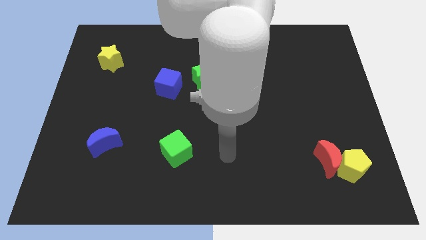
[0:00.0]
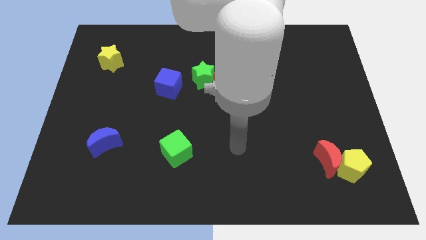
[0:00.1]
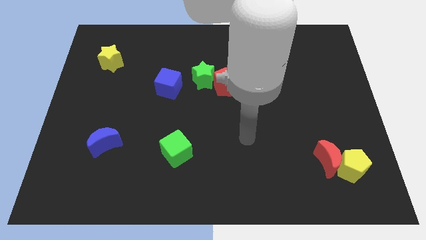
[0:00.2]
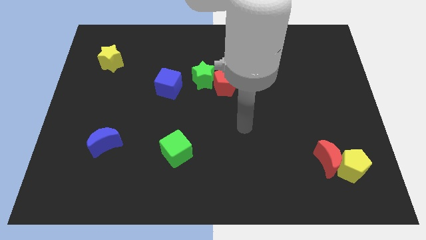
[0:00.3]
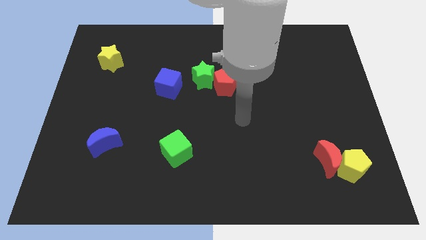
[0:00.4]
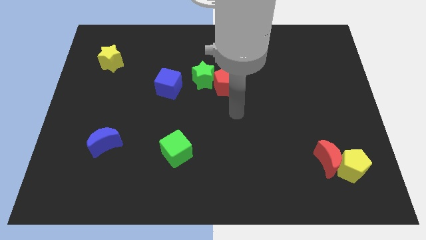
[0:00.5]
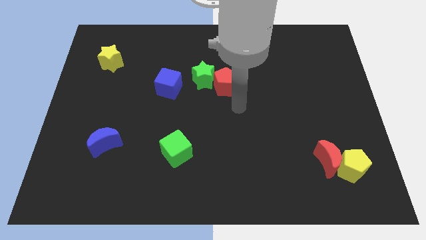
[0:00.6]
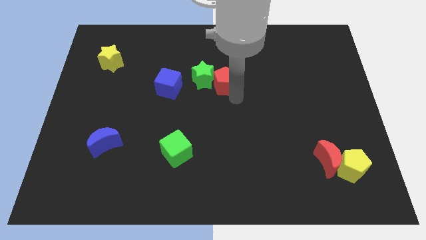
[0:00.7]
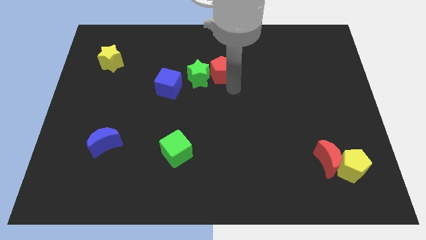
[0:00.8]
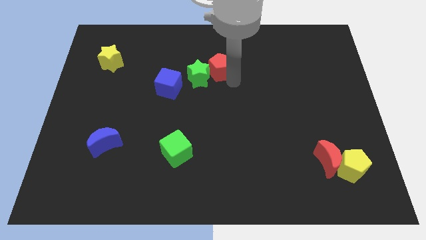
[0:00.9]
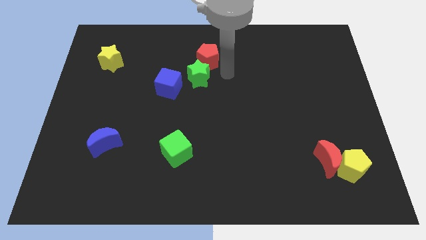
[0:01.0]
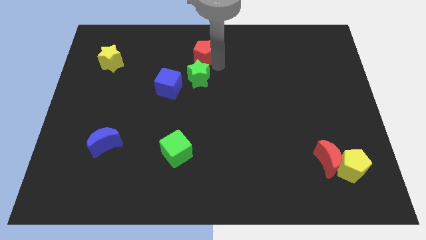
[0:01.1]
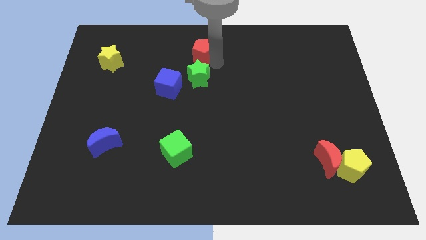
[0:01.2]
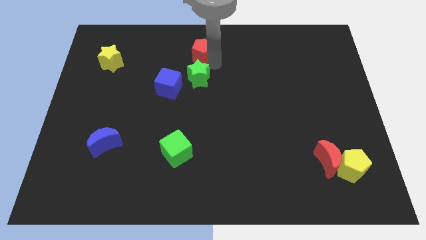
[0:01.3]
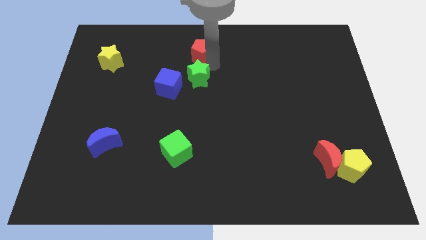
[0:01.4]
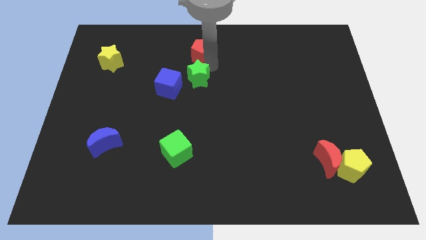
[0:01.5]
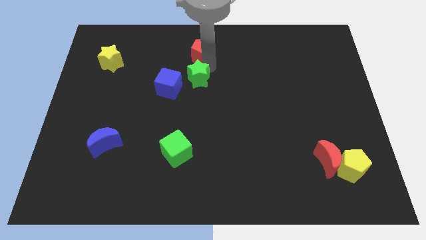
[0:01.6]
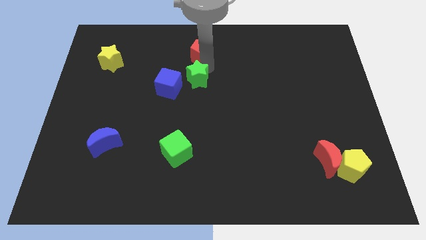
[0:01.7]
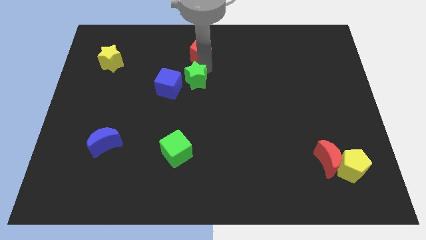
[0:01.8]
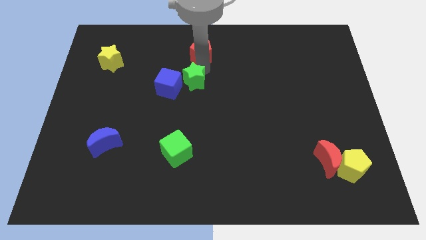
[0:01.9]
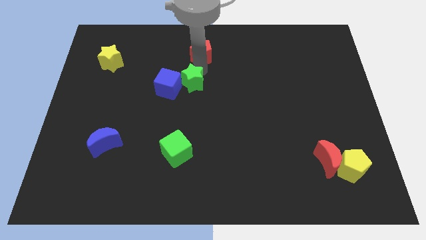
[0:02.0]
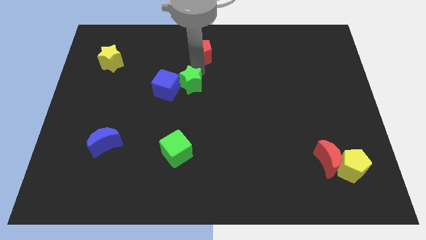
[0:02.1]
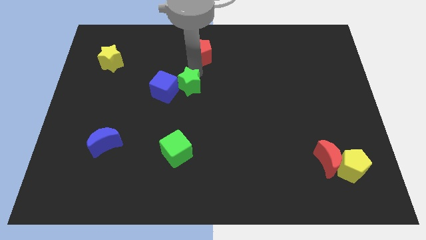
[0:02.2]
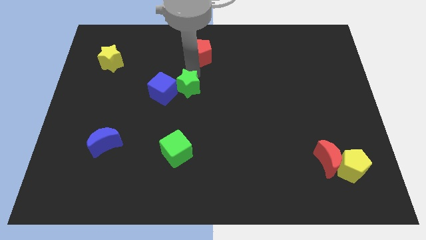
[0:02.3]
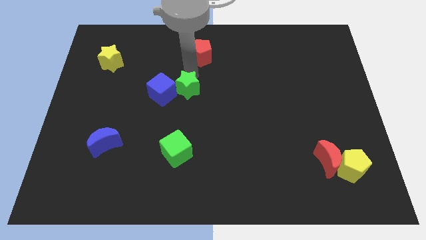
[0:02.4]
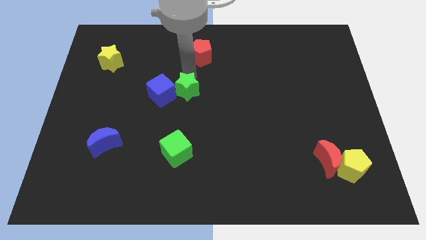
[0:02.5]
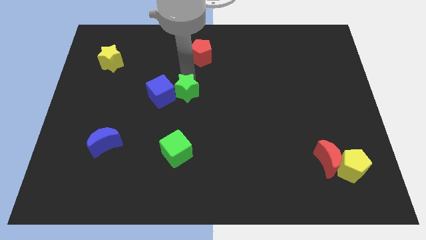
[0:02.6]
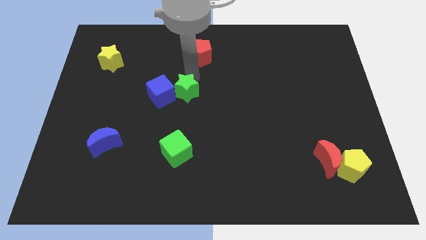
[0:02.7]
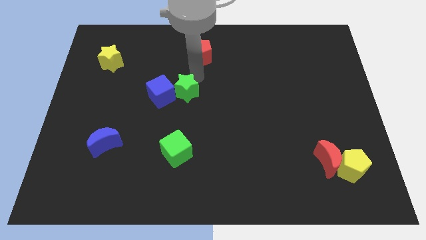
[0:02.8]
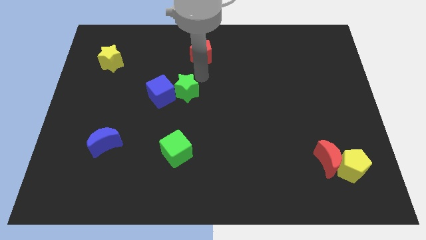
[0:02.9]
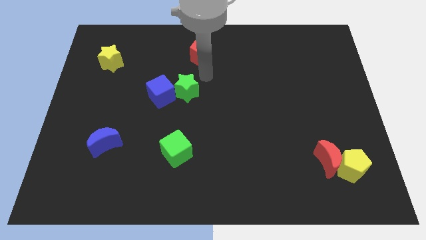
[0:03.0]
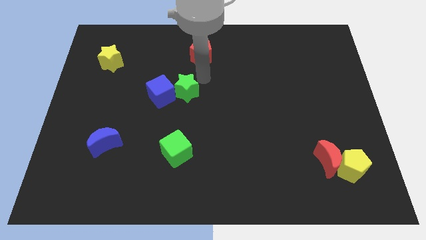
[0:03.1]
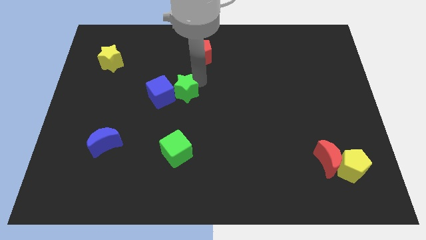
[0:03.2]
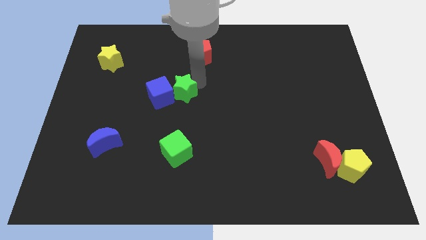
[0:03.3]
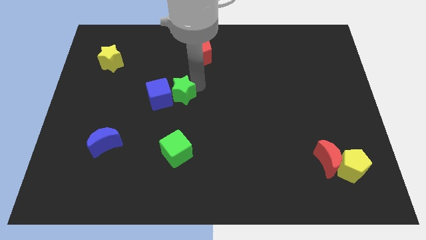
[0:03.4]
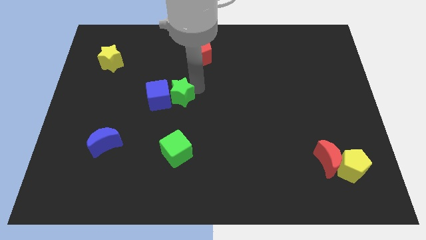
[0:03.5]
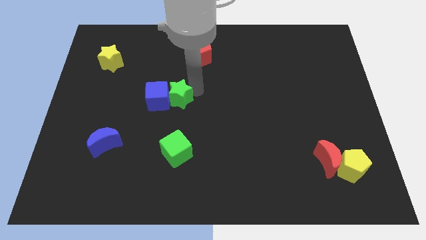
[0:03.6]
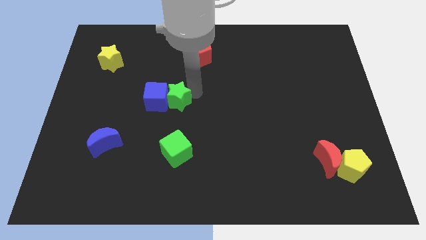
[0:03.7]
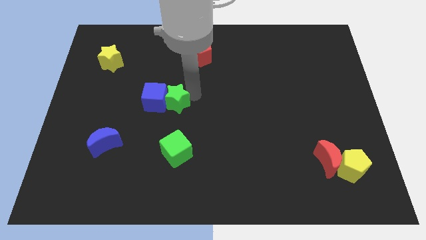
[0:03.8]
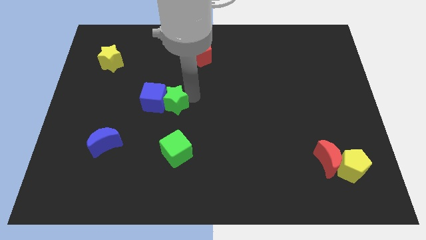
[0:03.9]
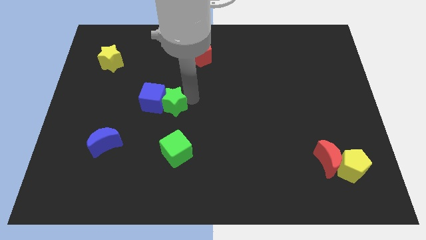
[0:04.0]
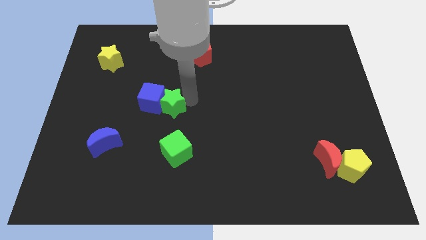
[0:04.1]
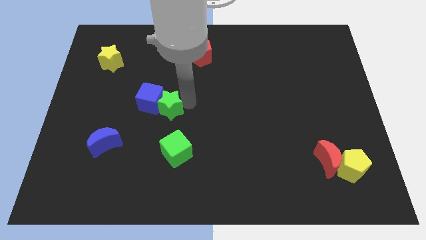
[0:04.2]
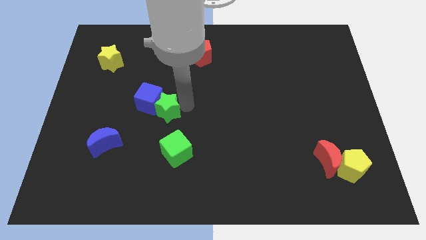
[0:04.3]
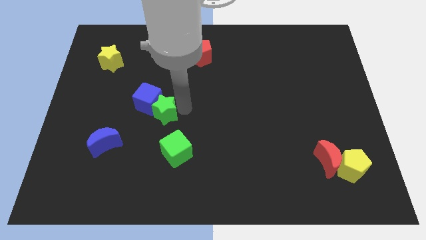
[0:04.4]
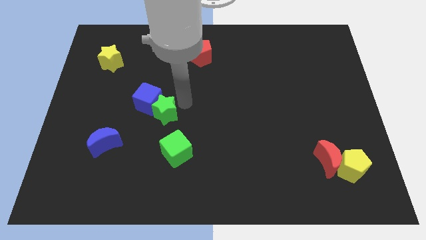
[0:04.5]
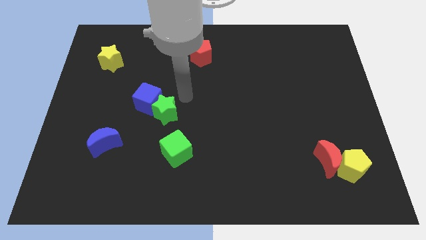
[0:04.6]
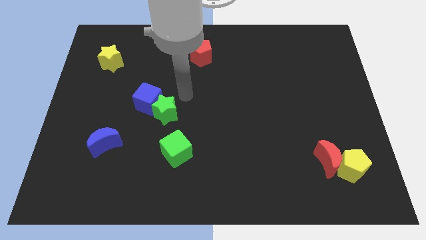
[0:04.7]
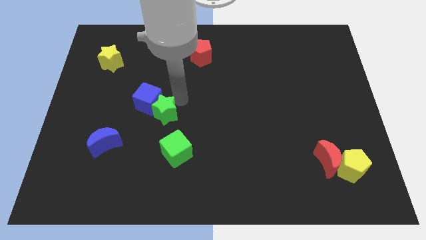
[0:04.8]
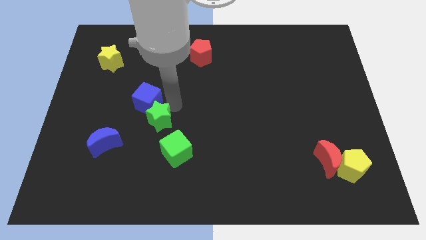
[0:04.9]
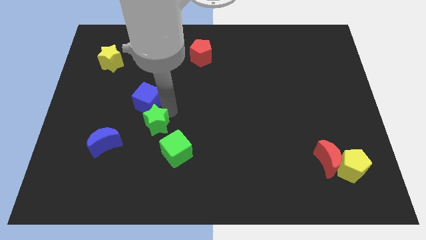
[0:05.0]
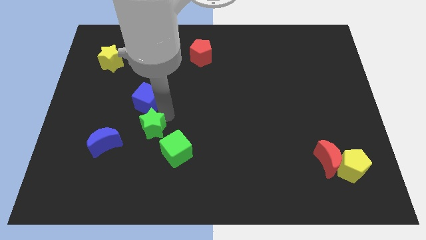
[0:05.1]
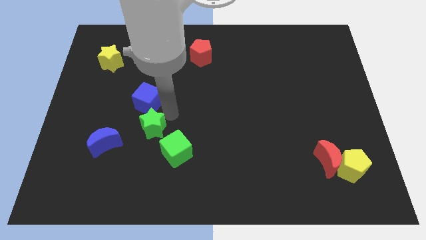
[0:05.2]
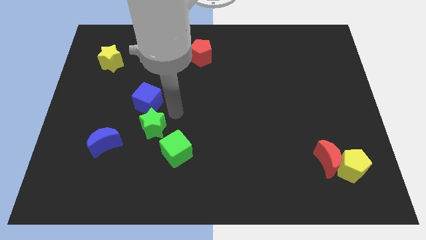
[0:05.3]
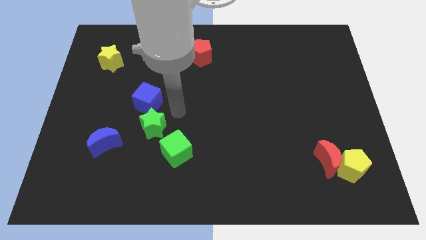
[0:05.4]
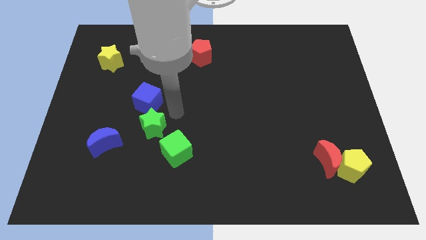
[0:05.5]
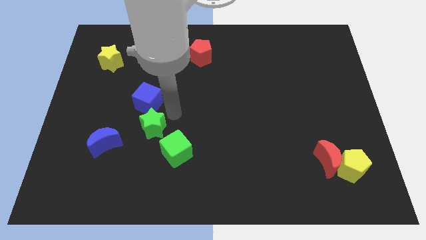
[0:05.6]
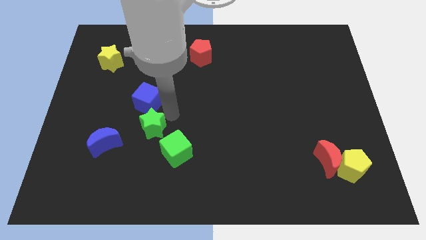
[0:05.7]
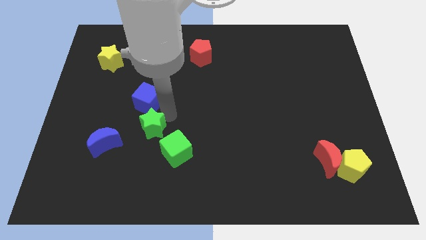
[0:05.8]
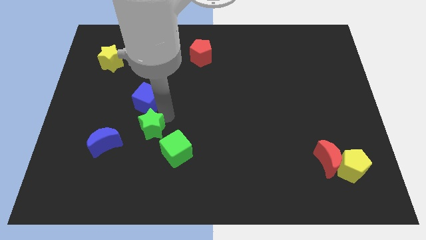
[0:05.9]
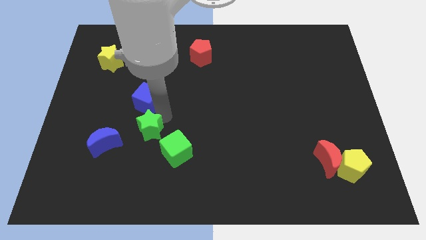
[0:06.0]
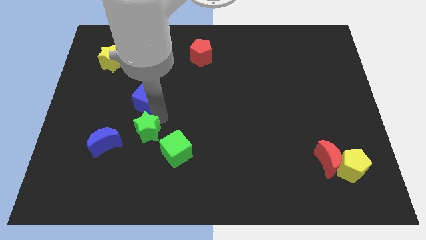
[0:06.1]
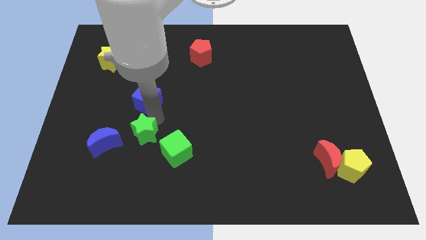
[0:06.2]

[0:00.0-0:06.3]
push the green star downwards and then to the left

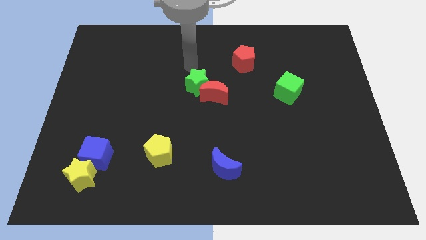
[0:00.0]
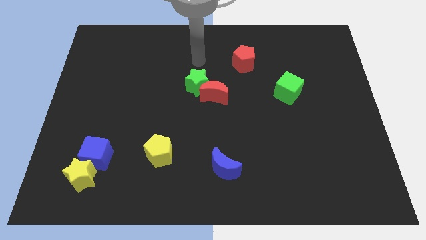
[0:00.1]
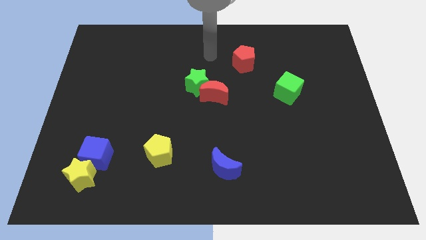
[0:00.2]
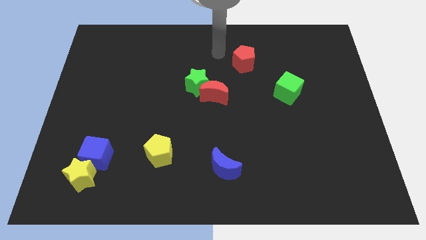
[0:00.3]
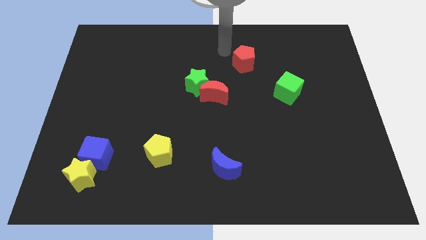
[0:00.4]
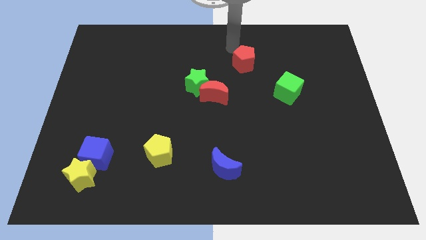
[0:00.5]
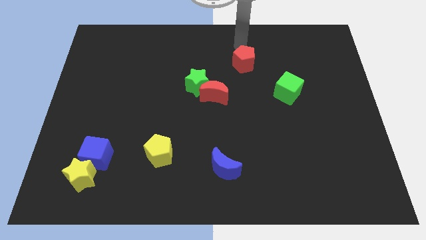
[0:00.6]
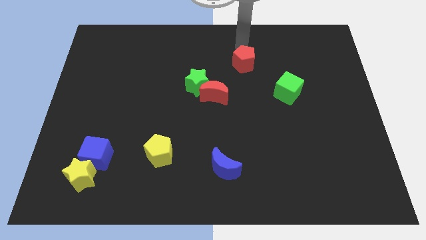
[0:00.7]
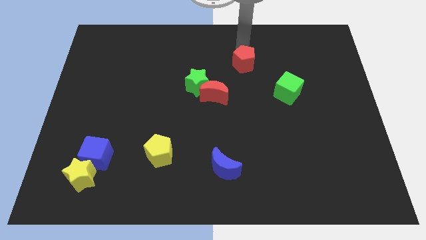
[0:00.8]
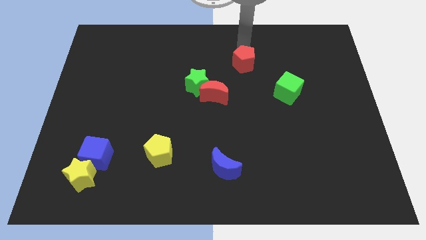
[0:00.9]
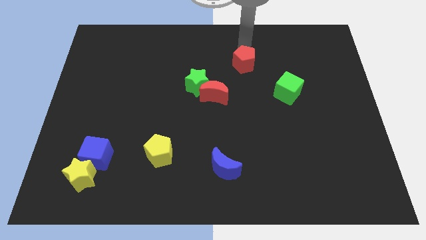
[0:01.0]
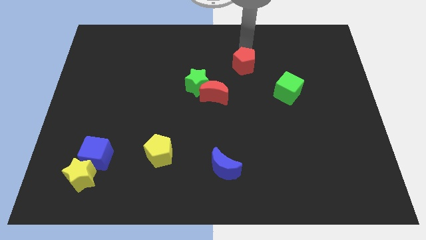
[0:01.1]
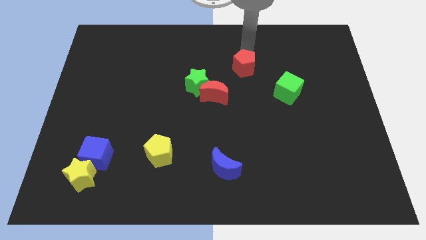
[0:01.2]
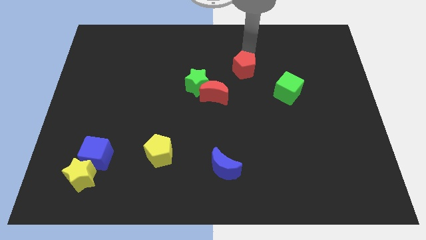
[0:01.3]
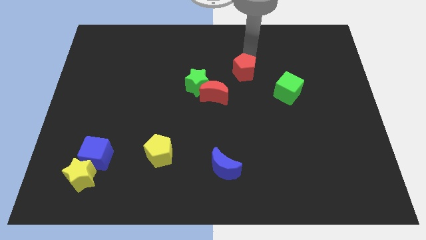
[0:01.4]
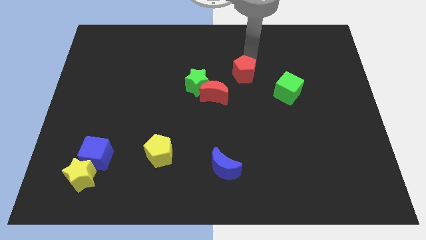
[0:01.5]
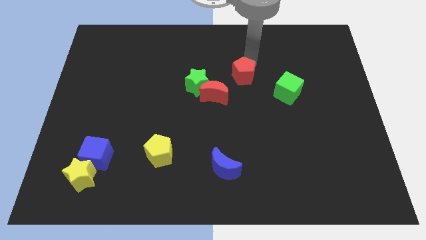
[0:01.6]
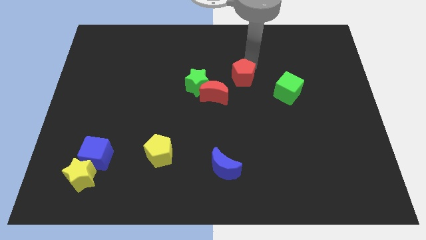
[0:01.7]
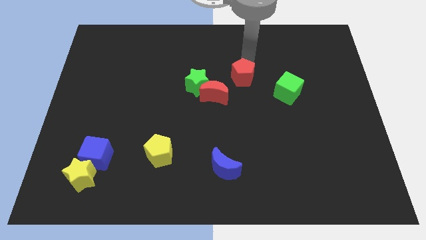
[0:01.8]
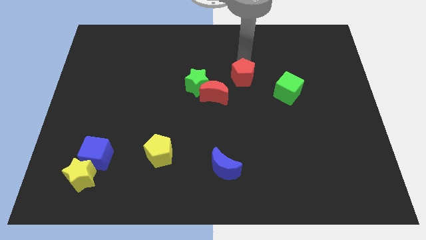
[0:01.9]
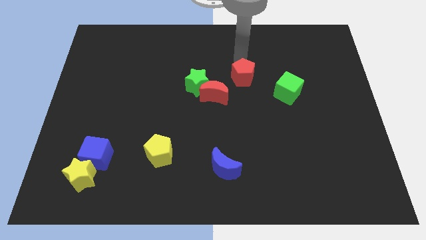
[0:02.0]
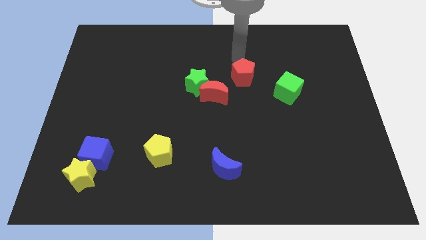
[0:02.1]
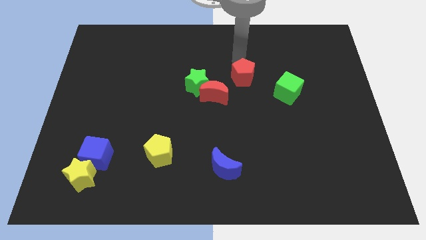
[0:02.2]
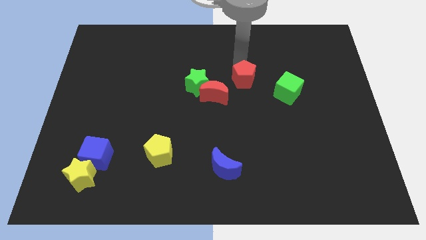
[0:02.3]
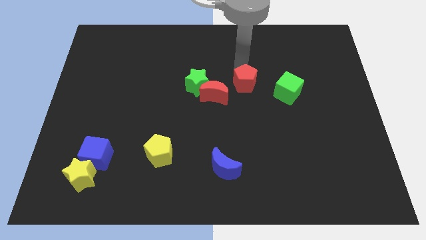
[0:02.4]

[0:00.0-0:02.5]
push the red pentagon a little downwards
